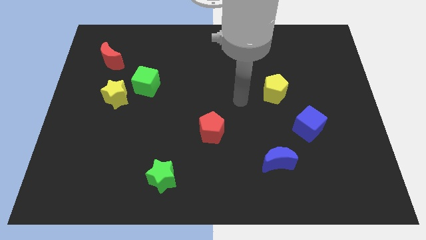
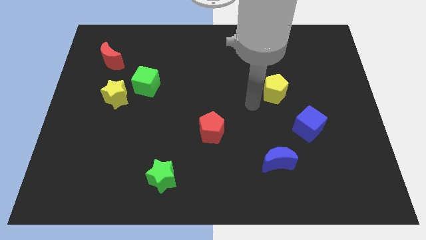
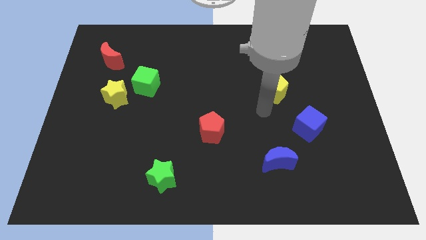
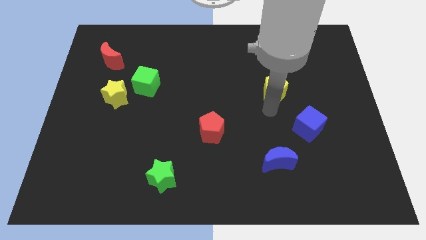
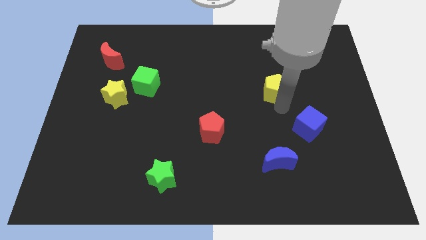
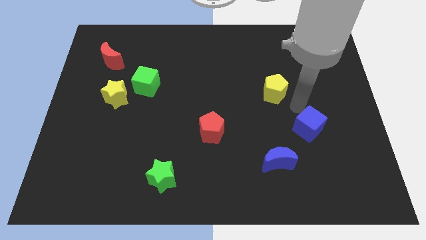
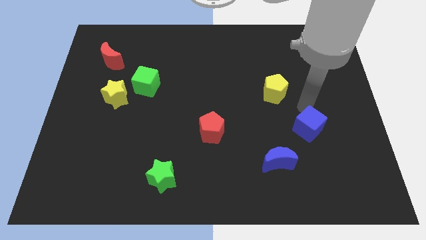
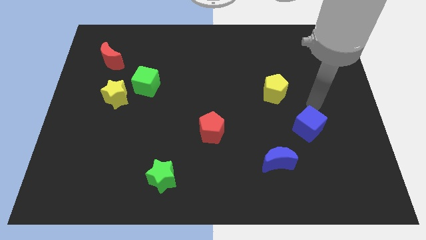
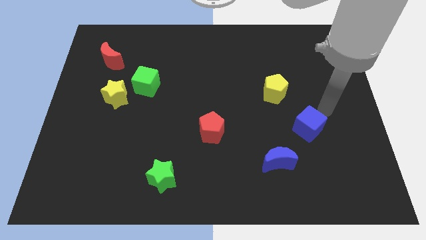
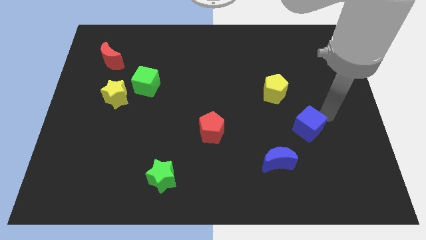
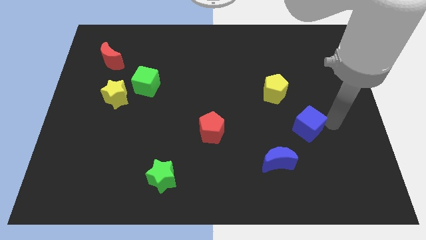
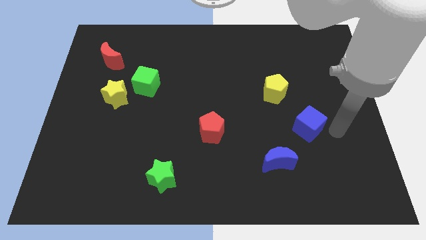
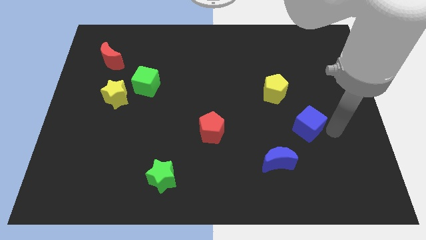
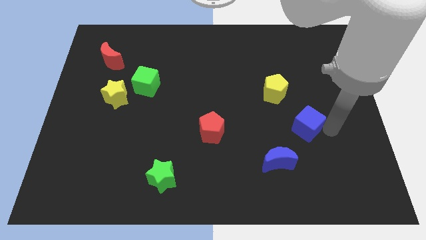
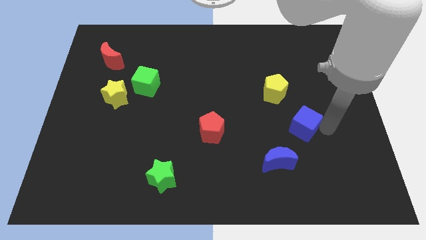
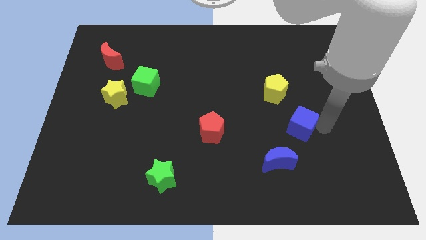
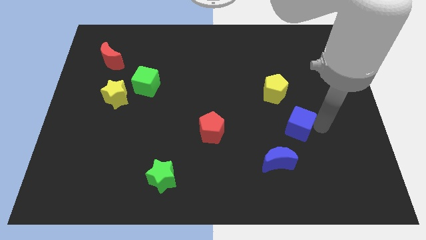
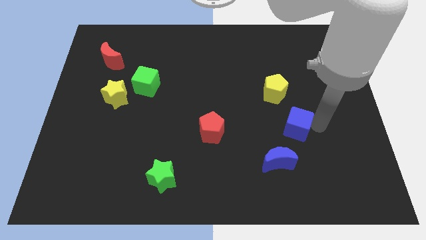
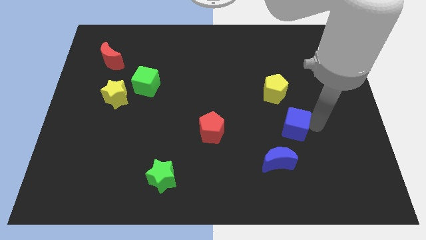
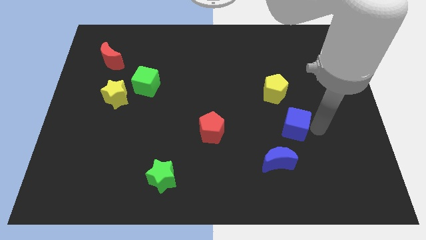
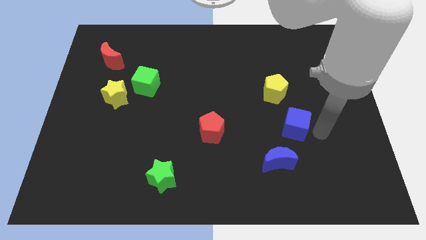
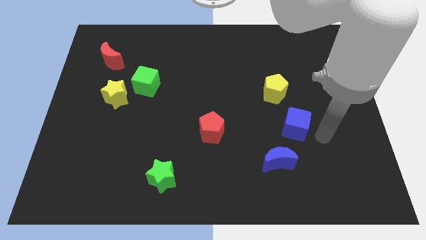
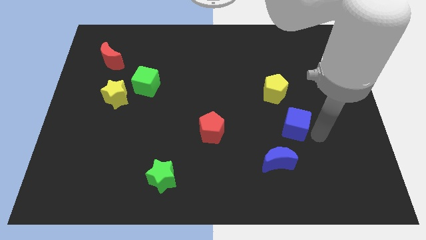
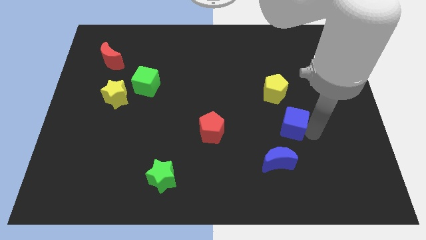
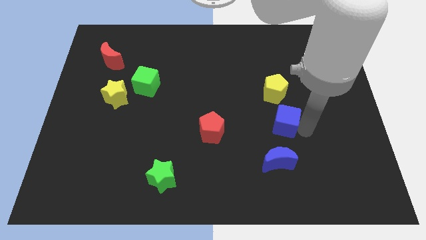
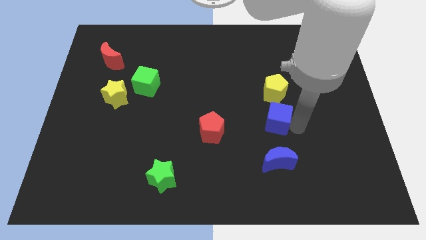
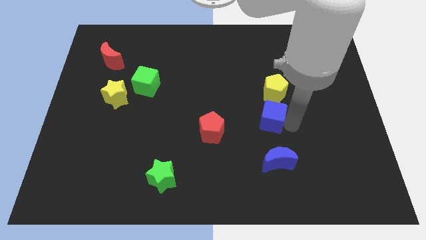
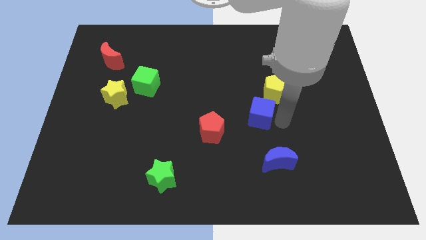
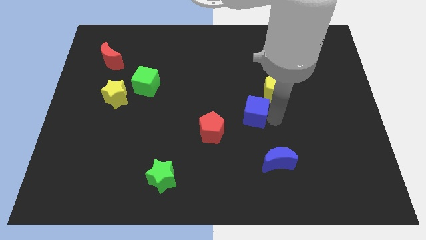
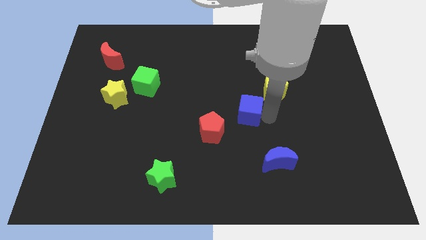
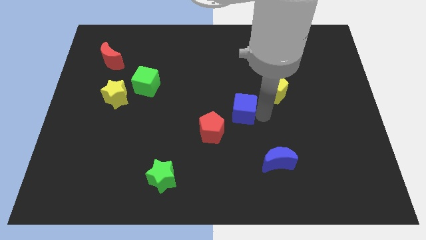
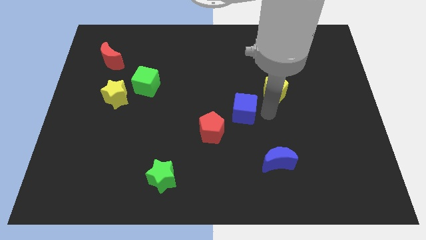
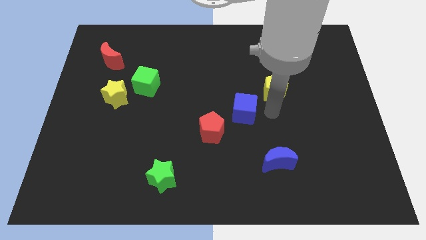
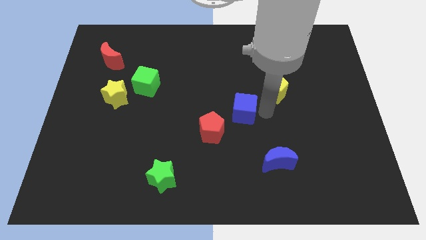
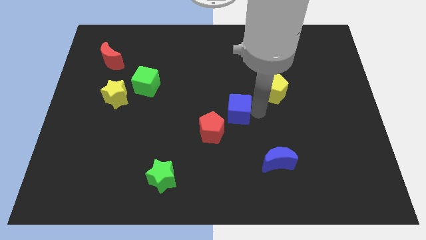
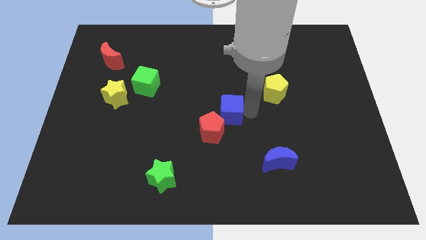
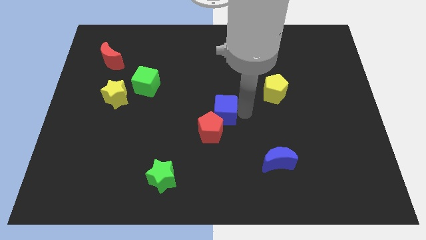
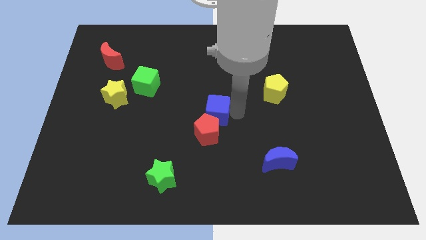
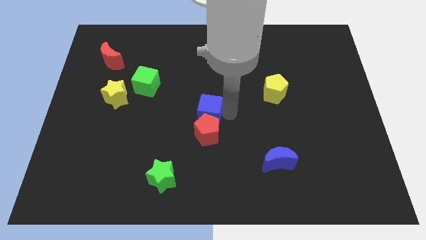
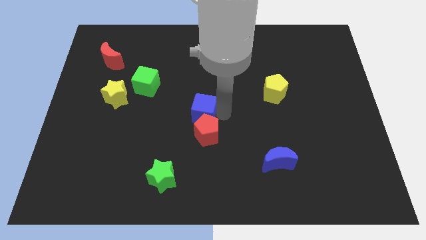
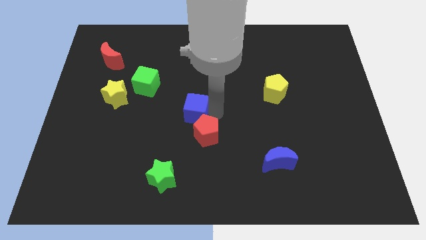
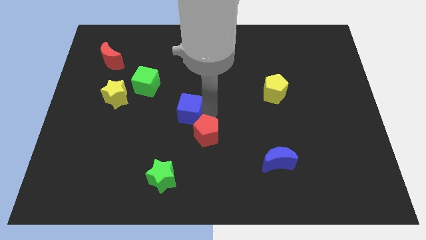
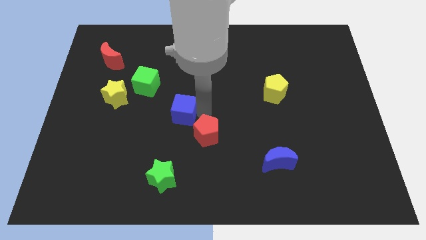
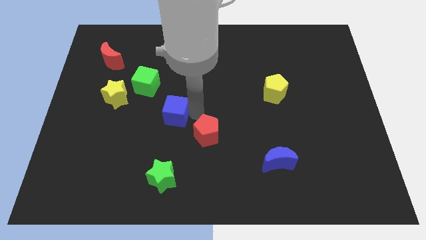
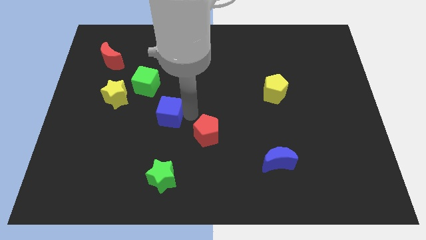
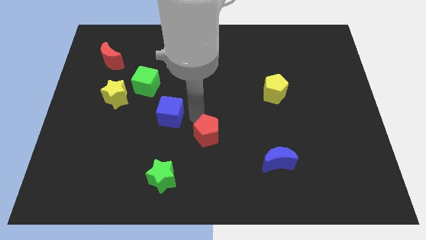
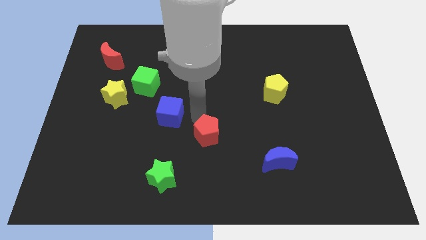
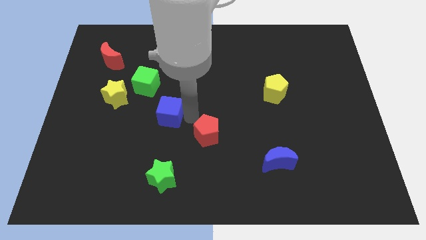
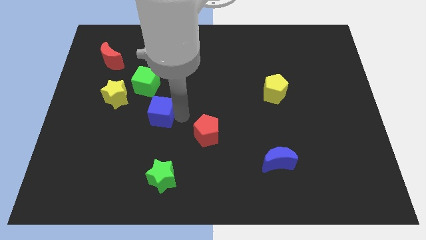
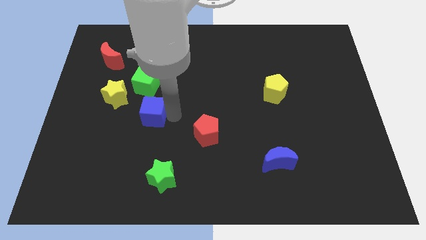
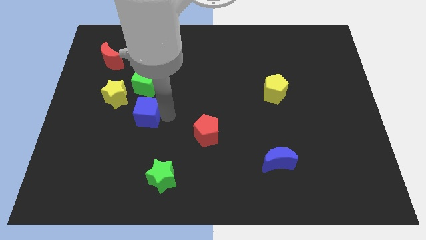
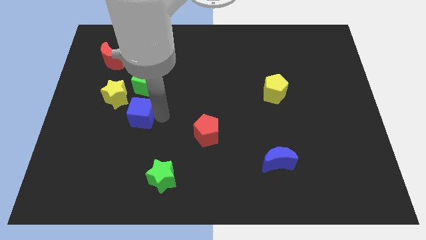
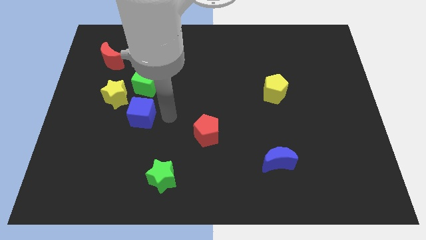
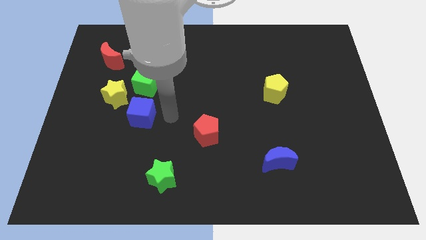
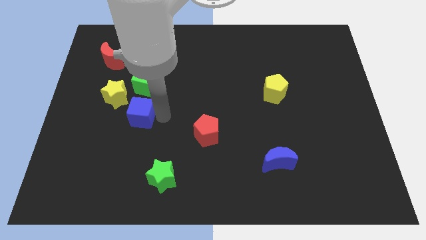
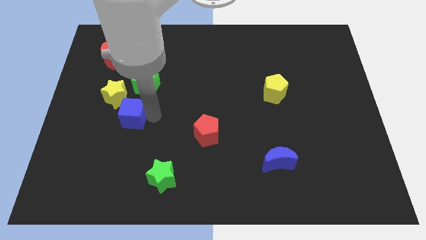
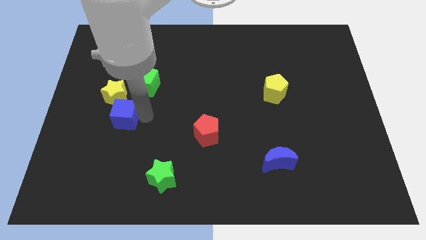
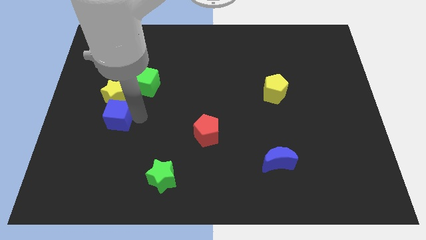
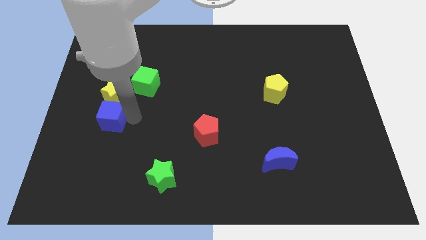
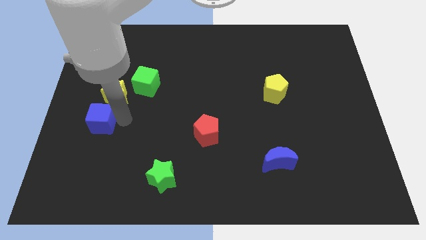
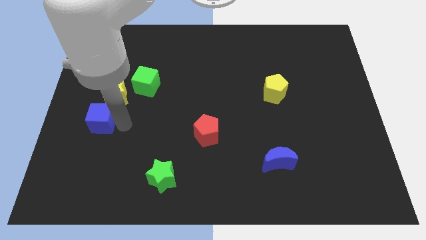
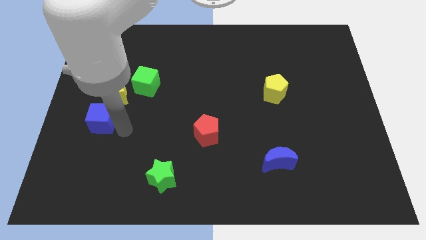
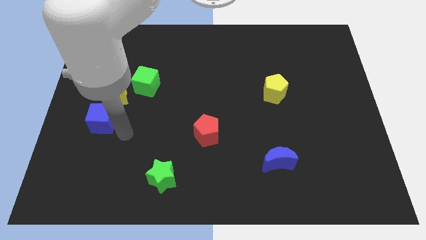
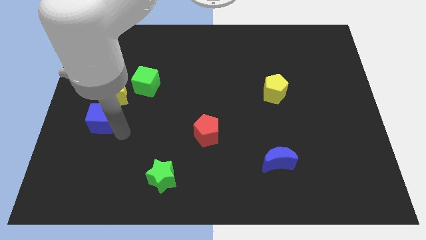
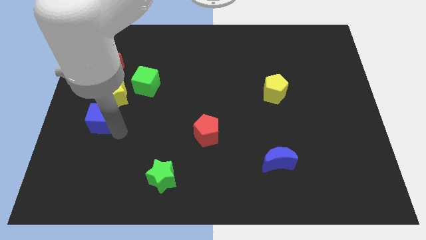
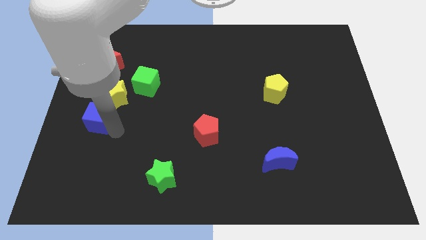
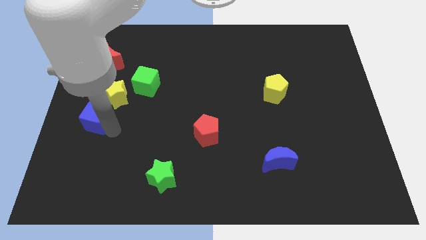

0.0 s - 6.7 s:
put the blue cube to the left side of the board

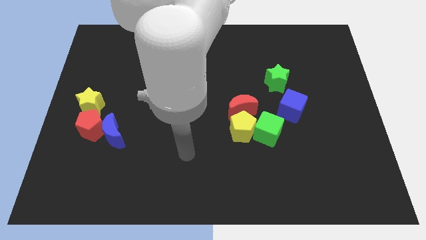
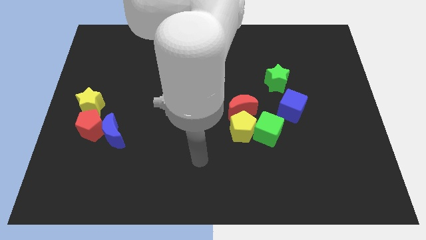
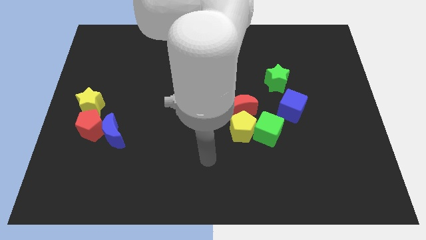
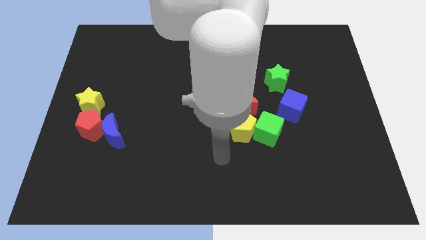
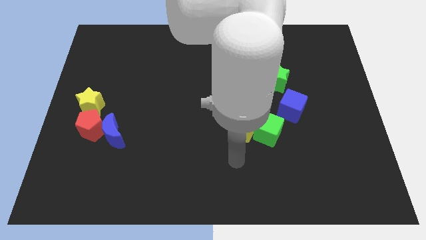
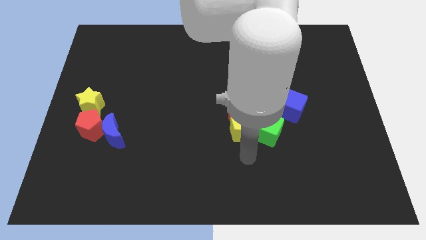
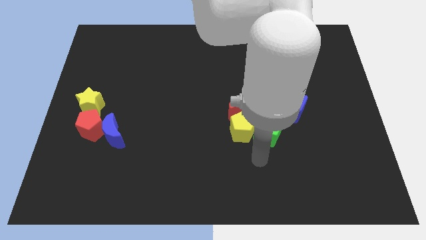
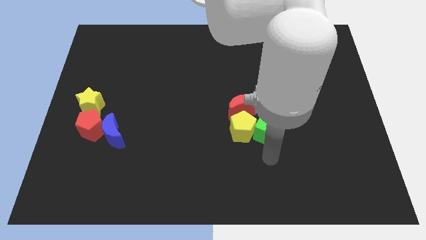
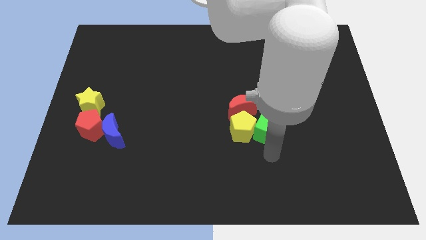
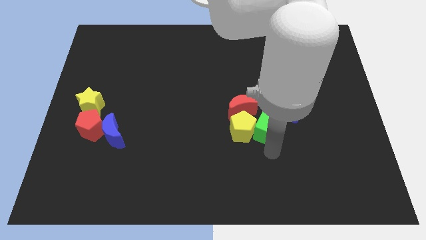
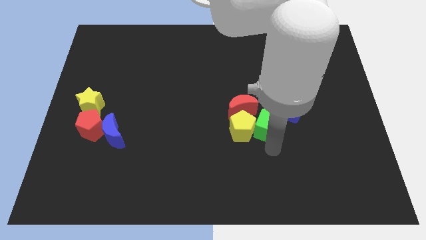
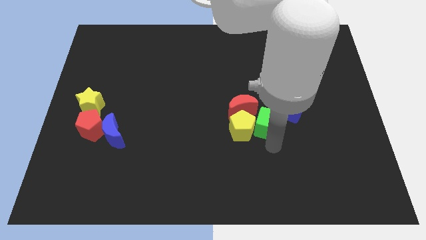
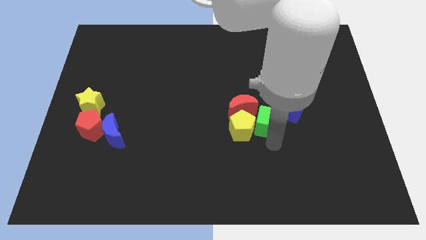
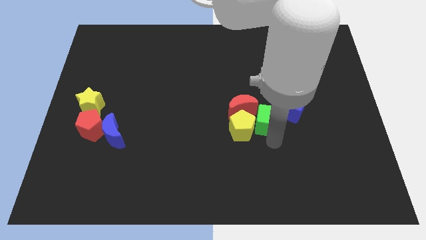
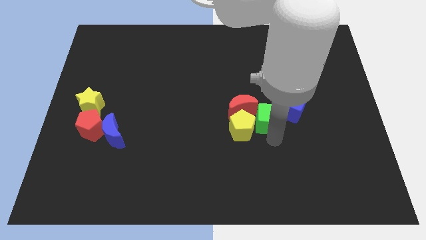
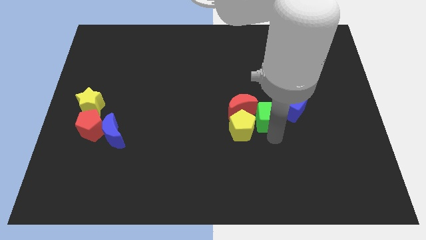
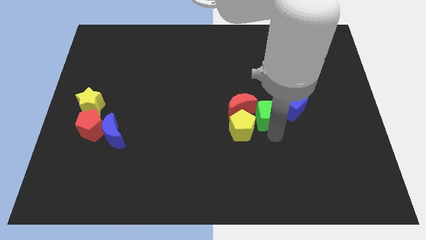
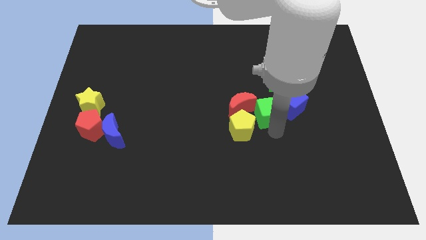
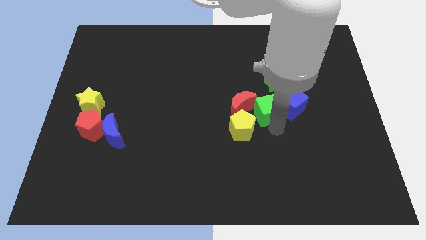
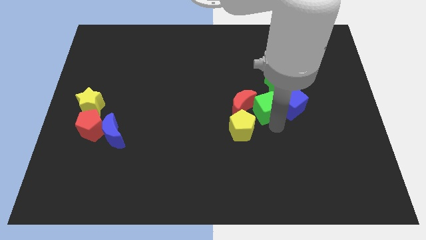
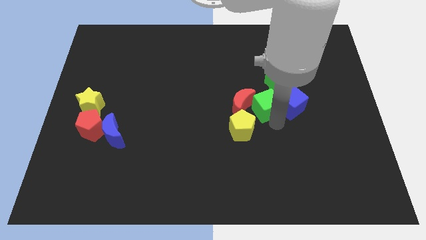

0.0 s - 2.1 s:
slide the green cube to the center
